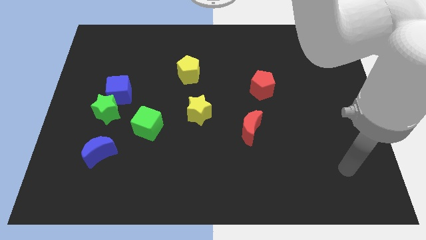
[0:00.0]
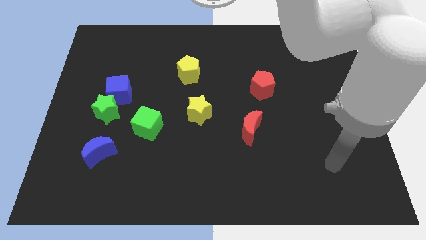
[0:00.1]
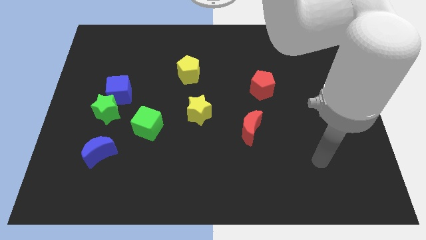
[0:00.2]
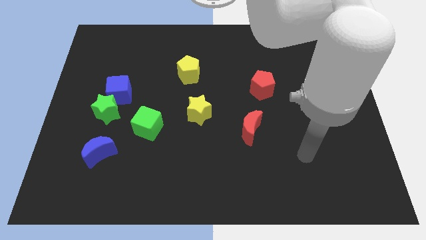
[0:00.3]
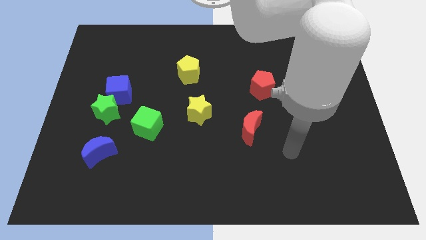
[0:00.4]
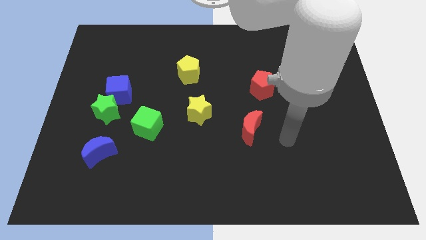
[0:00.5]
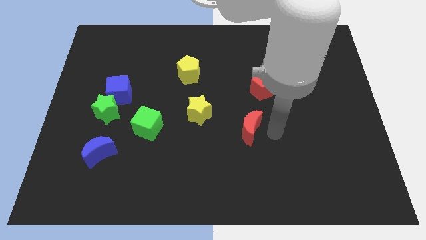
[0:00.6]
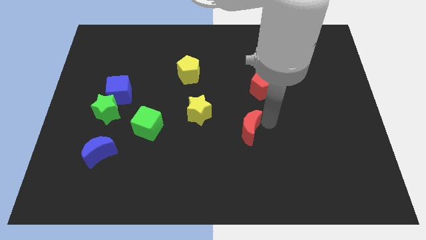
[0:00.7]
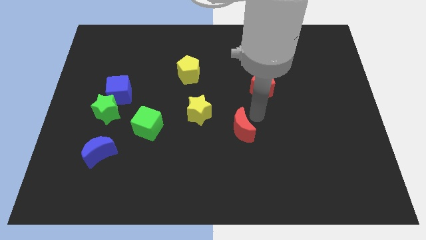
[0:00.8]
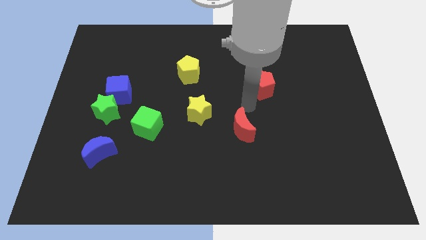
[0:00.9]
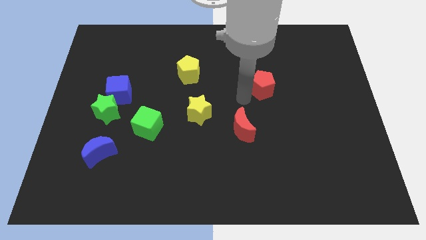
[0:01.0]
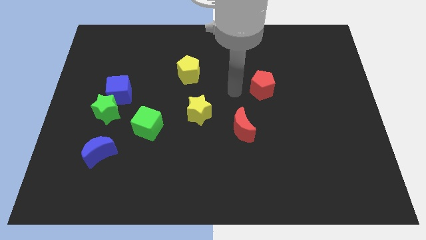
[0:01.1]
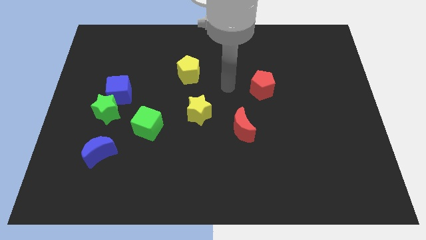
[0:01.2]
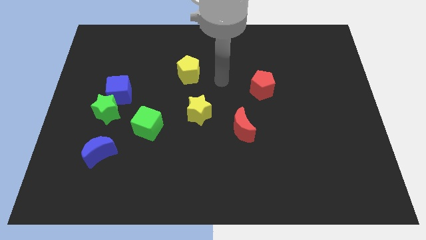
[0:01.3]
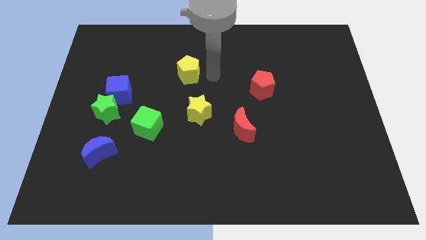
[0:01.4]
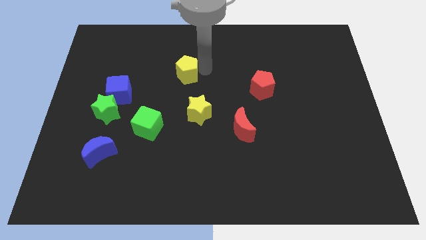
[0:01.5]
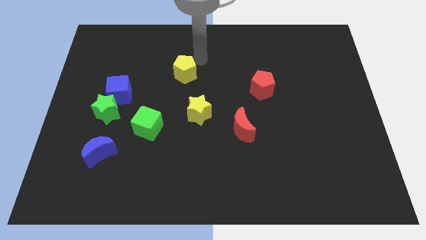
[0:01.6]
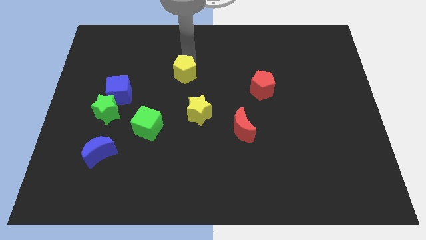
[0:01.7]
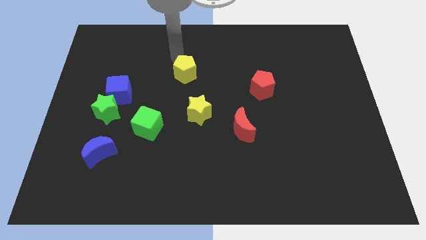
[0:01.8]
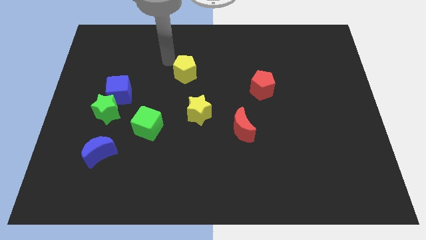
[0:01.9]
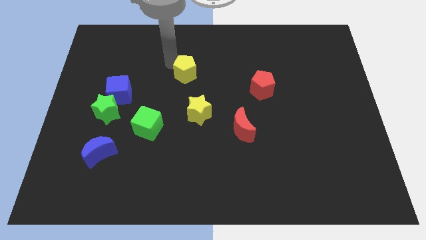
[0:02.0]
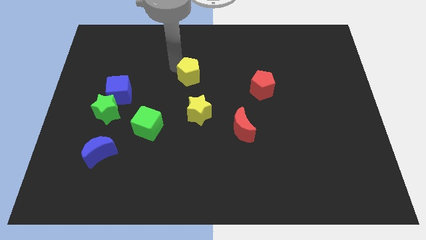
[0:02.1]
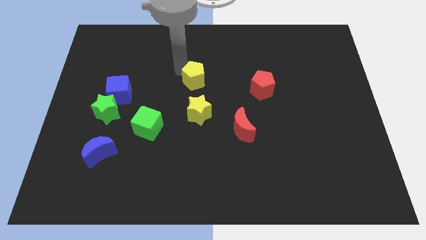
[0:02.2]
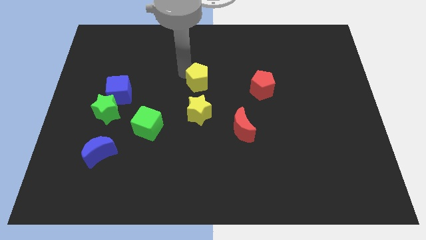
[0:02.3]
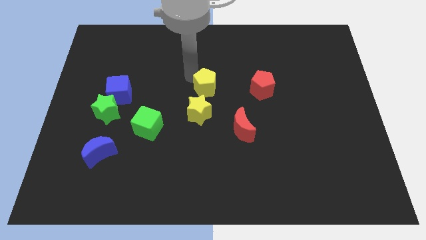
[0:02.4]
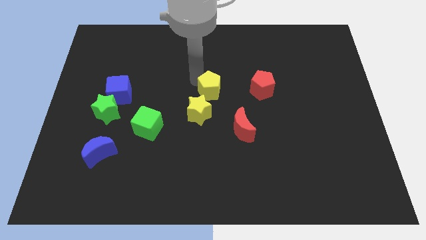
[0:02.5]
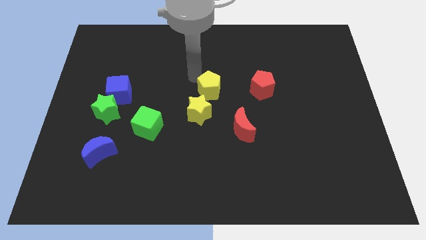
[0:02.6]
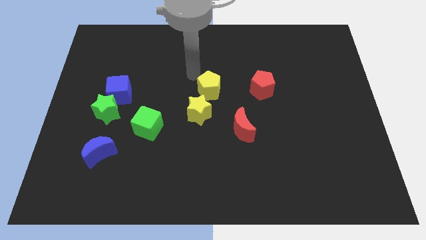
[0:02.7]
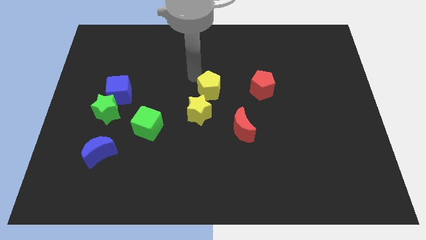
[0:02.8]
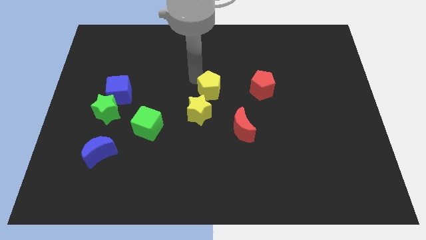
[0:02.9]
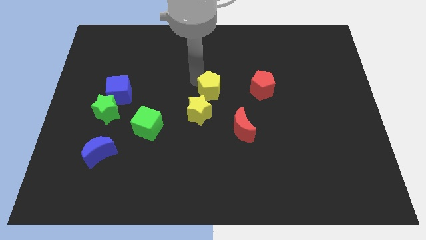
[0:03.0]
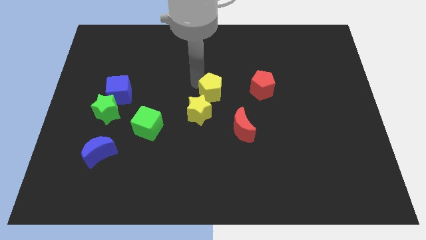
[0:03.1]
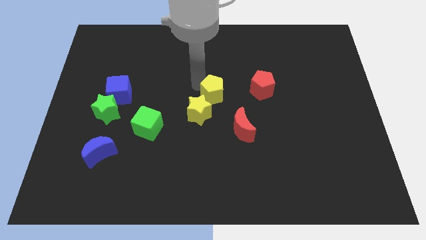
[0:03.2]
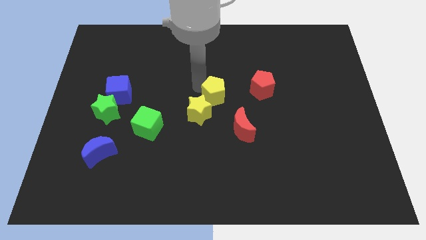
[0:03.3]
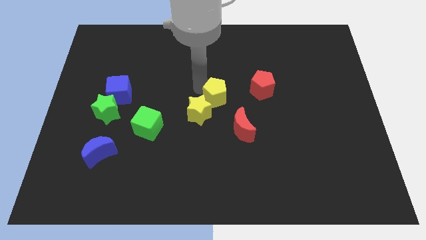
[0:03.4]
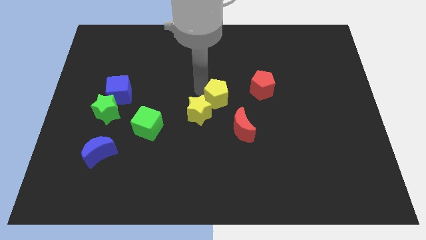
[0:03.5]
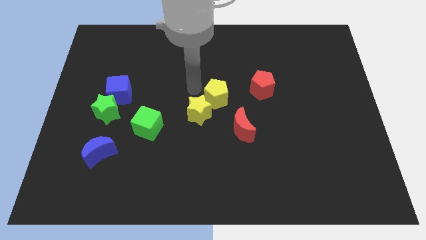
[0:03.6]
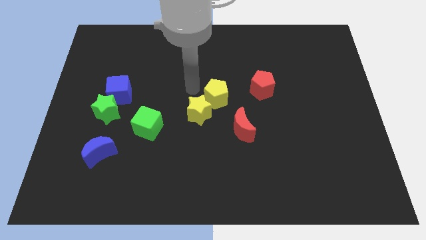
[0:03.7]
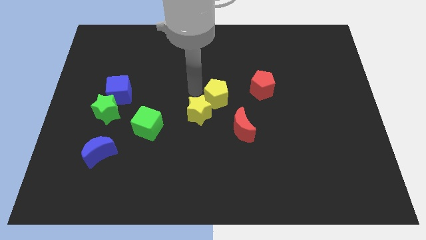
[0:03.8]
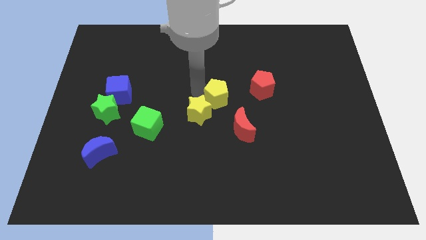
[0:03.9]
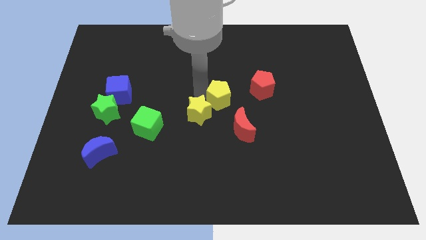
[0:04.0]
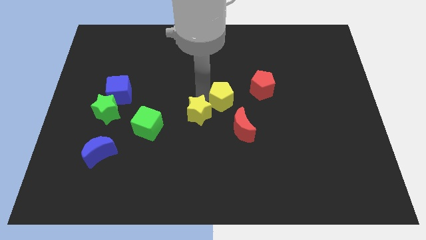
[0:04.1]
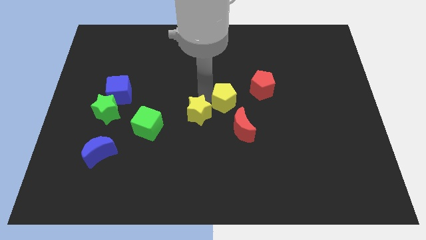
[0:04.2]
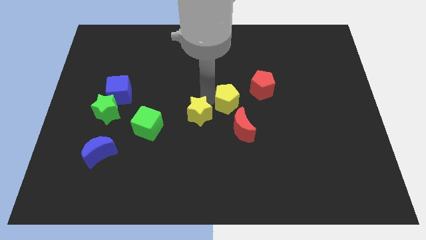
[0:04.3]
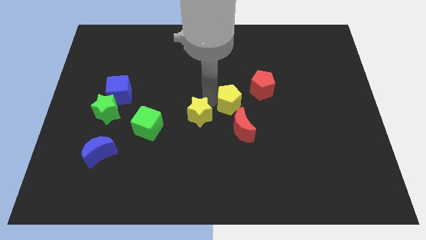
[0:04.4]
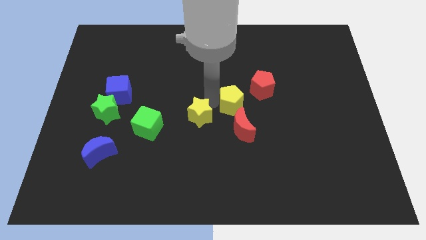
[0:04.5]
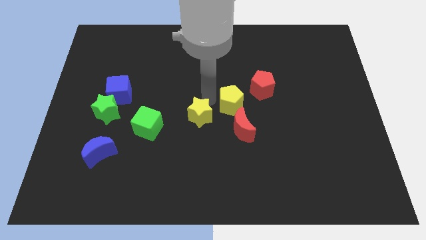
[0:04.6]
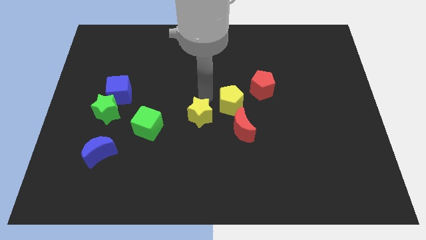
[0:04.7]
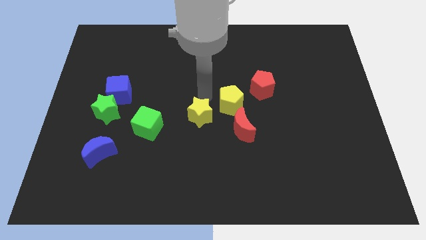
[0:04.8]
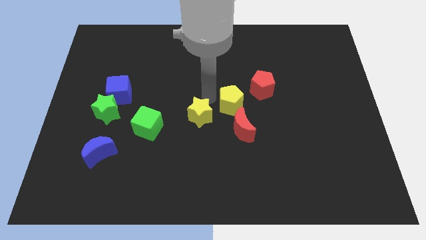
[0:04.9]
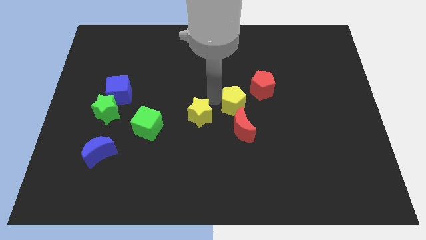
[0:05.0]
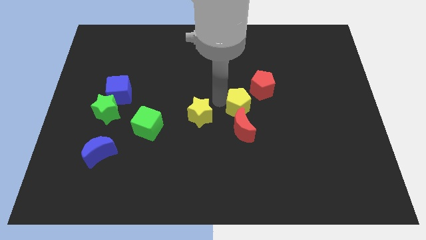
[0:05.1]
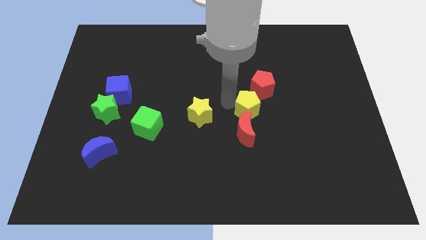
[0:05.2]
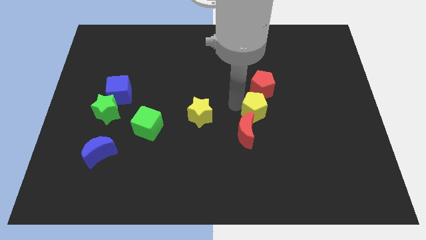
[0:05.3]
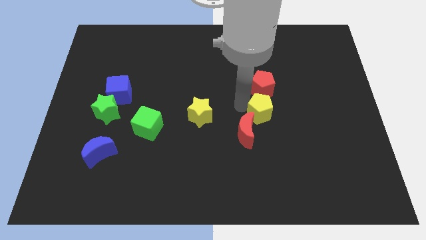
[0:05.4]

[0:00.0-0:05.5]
move the yellow pentagon down and right

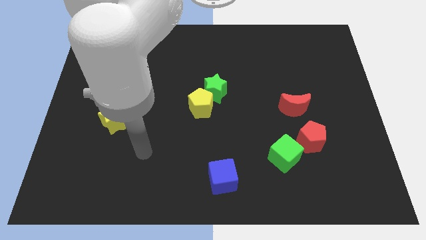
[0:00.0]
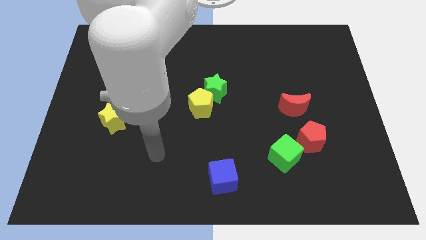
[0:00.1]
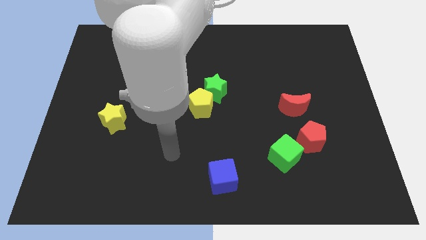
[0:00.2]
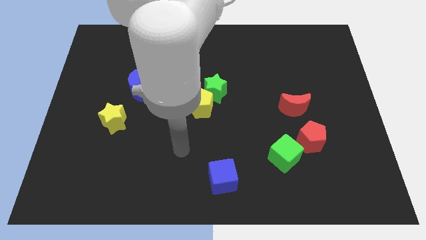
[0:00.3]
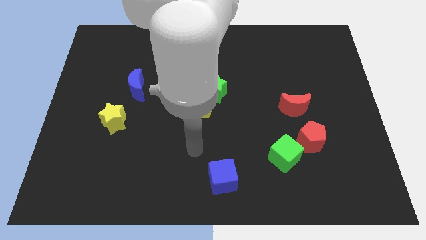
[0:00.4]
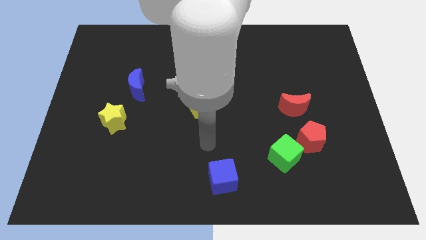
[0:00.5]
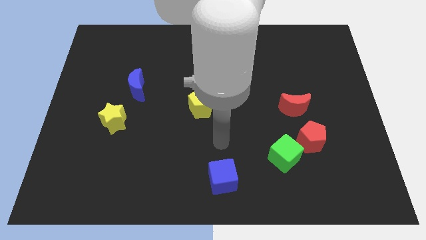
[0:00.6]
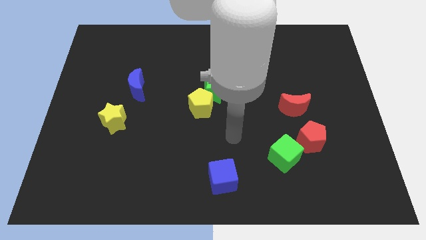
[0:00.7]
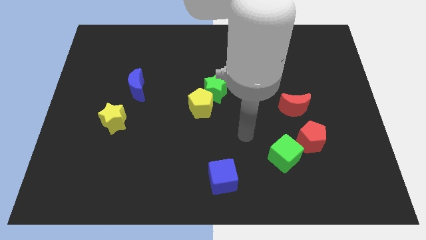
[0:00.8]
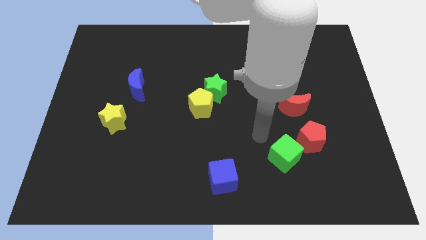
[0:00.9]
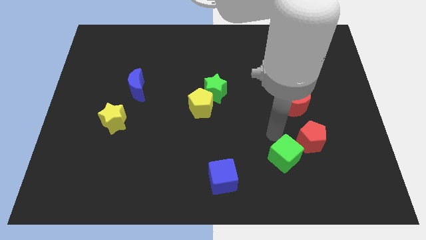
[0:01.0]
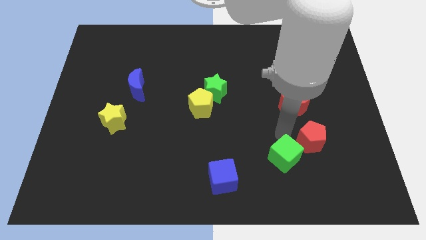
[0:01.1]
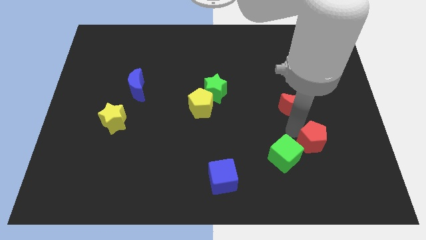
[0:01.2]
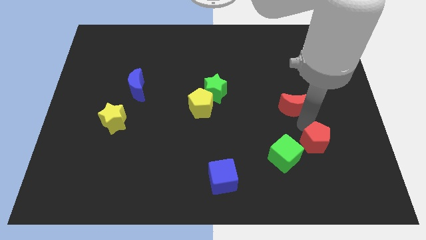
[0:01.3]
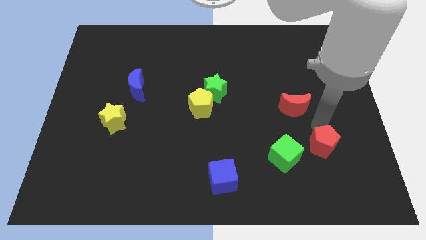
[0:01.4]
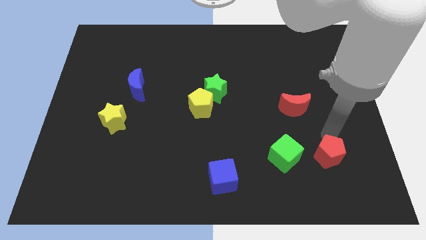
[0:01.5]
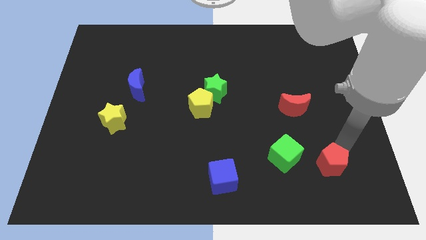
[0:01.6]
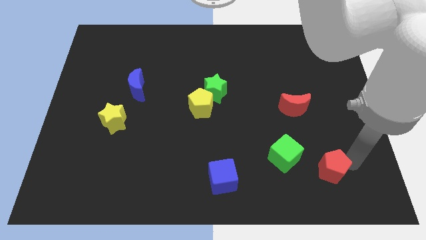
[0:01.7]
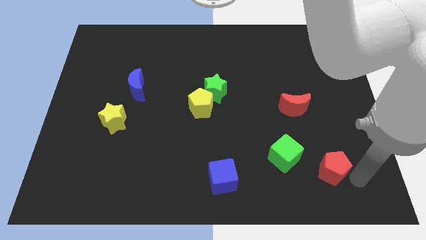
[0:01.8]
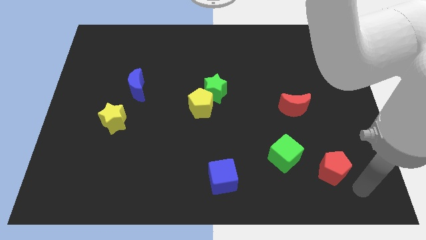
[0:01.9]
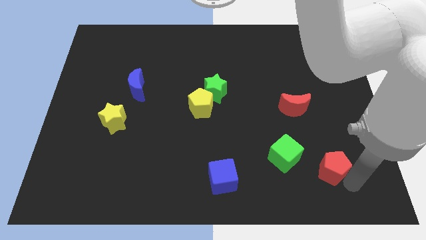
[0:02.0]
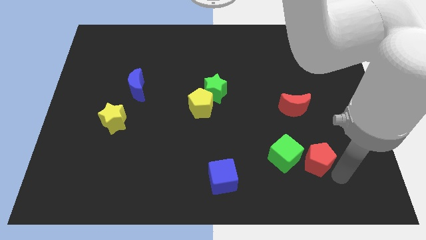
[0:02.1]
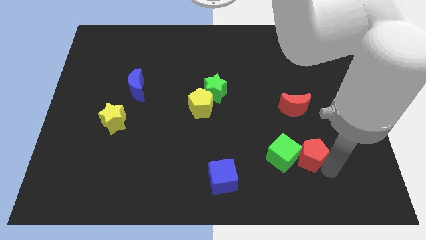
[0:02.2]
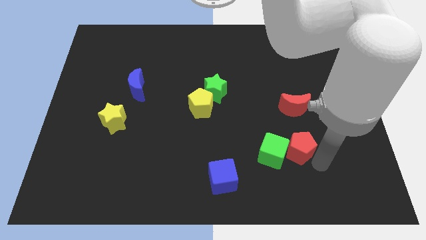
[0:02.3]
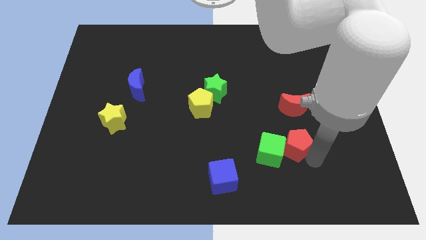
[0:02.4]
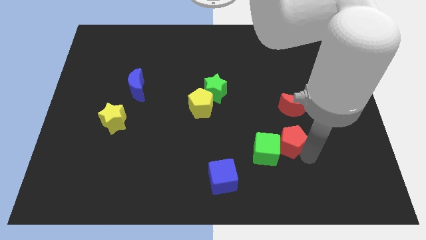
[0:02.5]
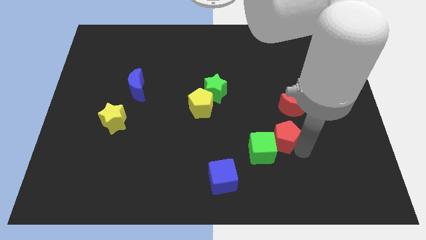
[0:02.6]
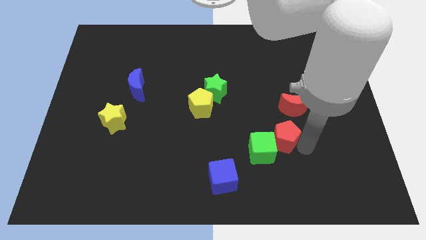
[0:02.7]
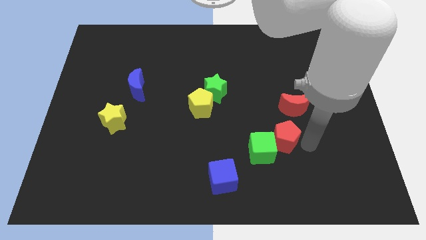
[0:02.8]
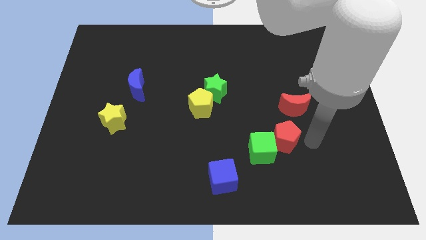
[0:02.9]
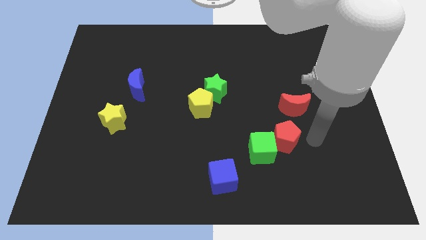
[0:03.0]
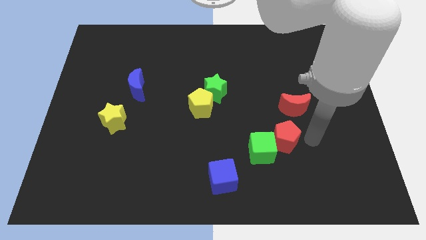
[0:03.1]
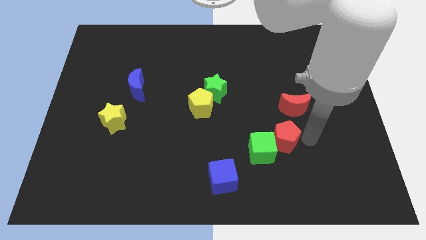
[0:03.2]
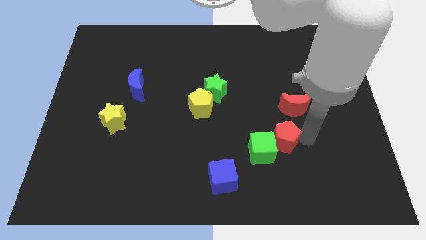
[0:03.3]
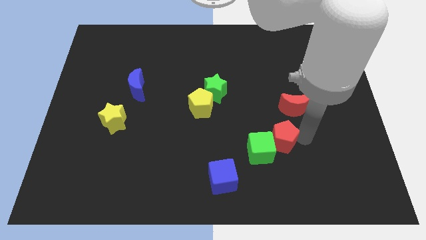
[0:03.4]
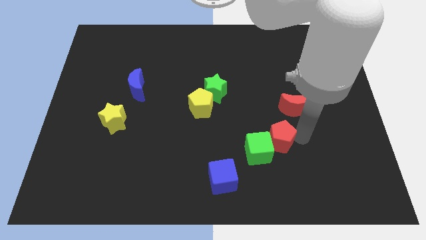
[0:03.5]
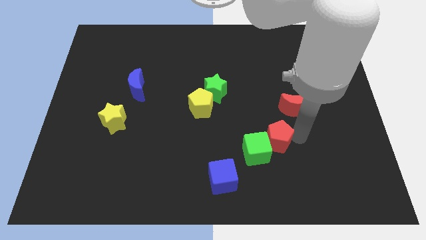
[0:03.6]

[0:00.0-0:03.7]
move the red pentagon a little bit left
